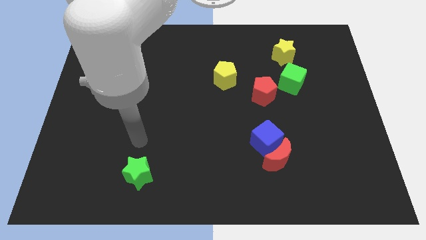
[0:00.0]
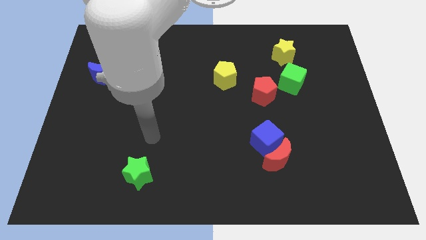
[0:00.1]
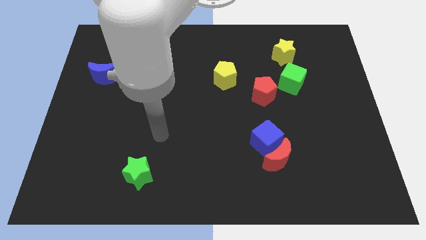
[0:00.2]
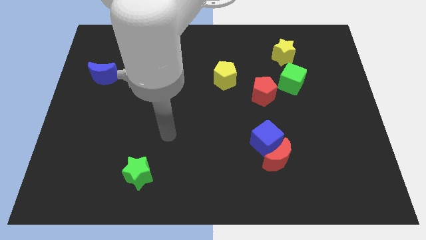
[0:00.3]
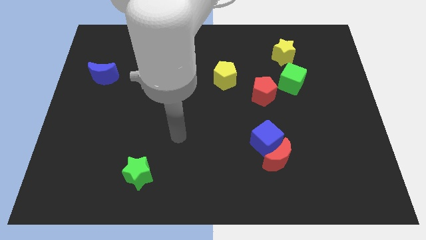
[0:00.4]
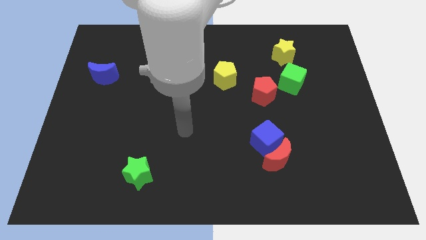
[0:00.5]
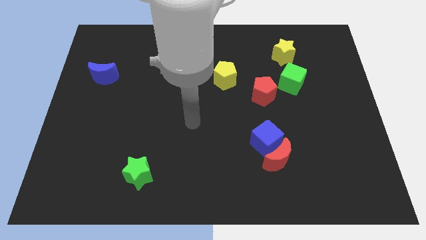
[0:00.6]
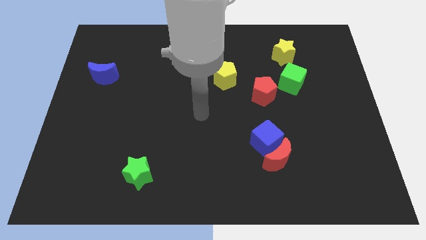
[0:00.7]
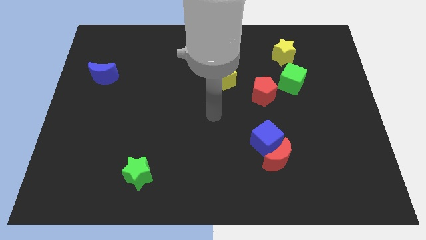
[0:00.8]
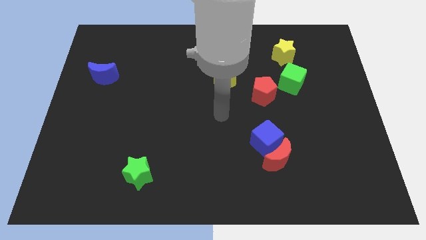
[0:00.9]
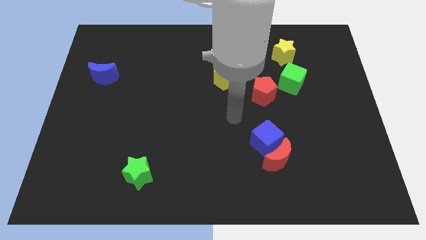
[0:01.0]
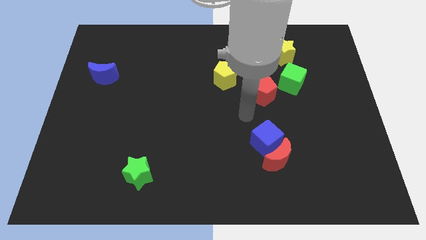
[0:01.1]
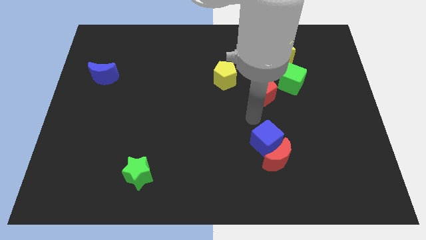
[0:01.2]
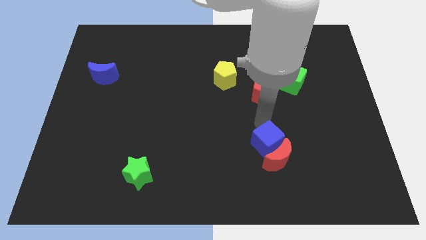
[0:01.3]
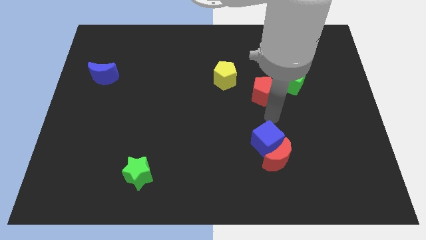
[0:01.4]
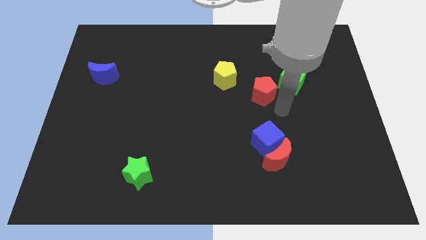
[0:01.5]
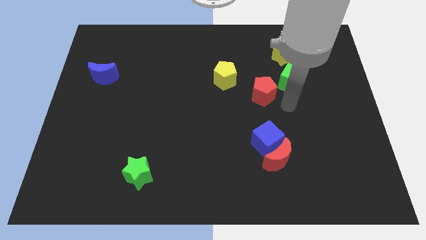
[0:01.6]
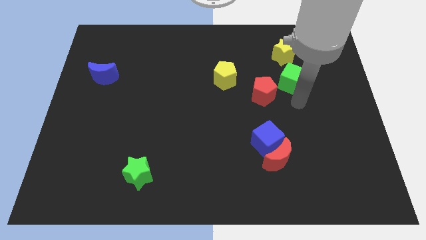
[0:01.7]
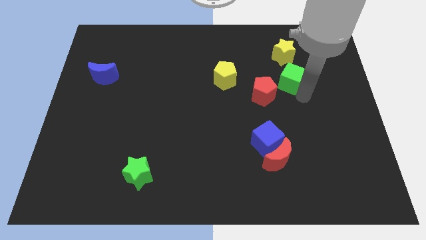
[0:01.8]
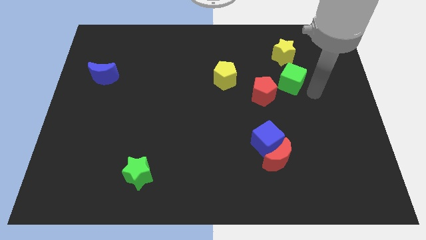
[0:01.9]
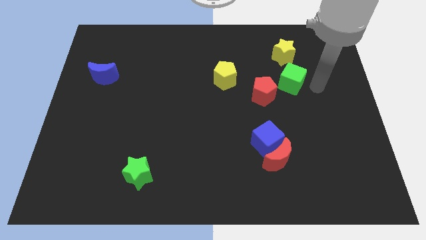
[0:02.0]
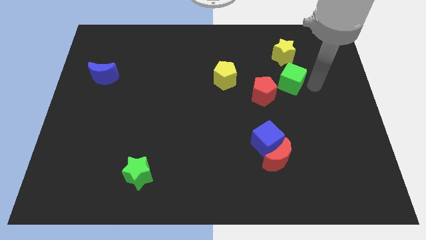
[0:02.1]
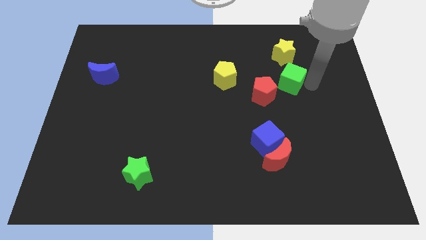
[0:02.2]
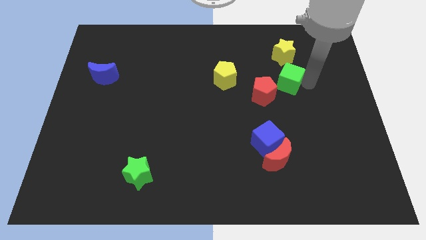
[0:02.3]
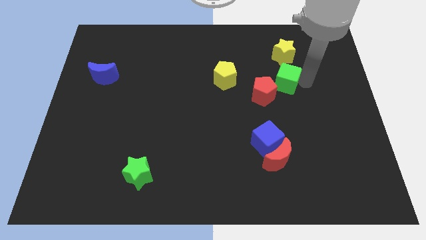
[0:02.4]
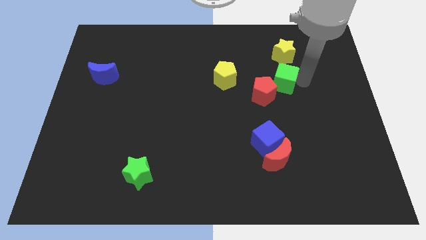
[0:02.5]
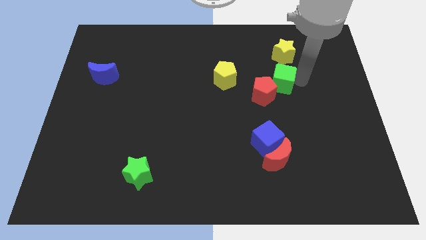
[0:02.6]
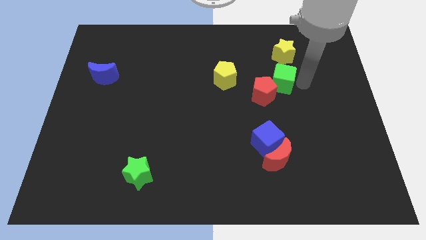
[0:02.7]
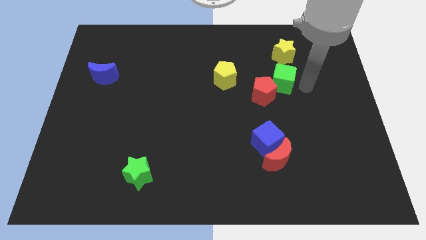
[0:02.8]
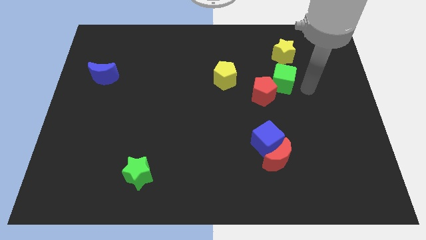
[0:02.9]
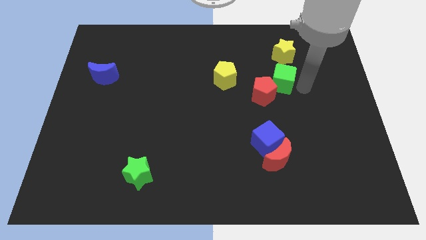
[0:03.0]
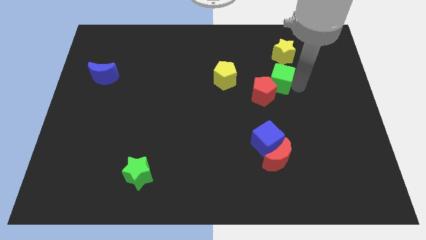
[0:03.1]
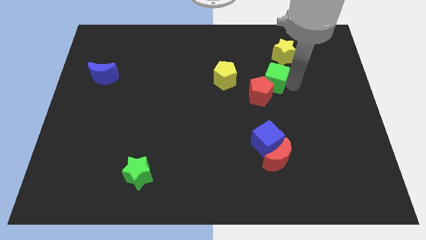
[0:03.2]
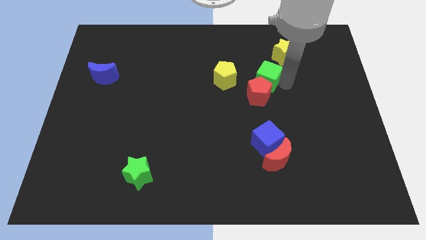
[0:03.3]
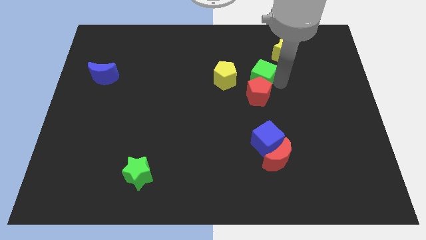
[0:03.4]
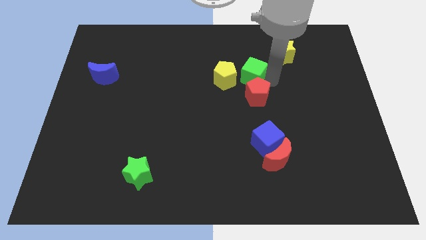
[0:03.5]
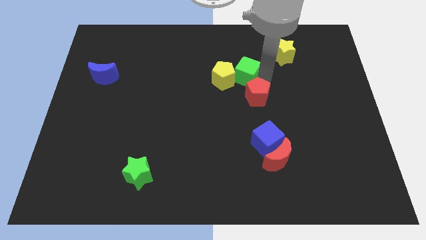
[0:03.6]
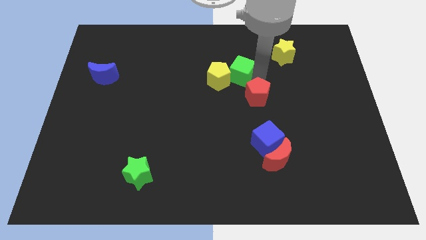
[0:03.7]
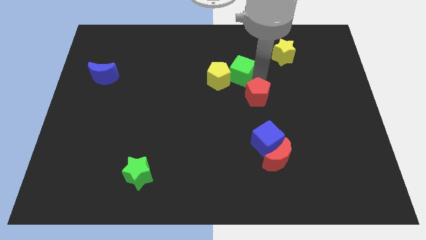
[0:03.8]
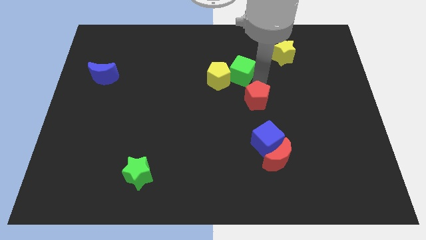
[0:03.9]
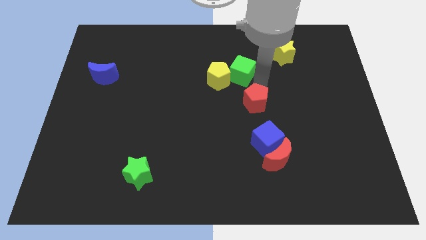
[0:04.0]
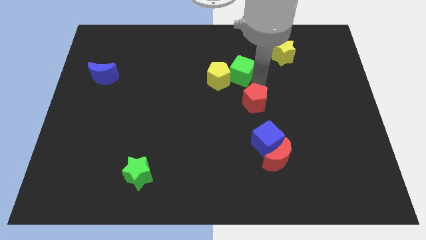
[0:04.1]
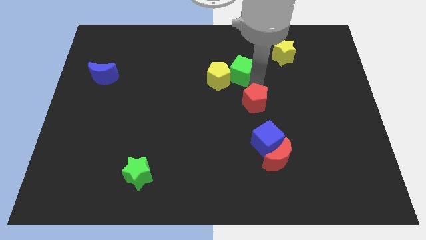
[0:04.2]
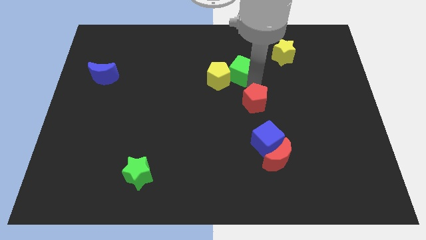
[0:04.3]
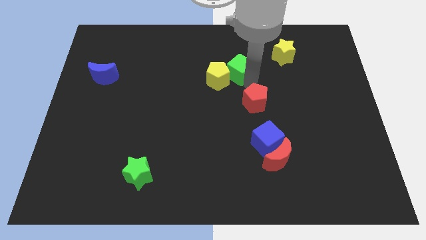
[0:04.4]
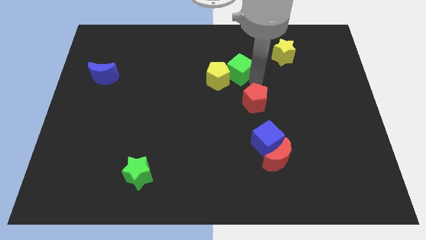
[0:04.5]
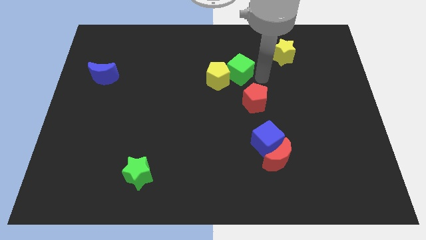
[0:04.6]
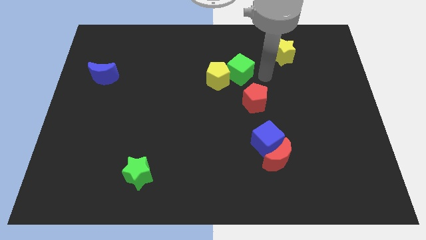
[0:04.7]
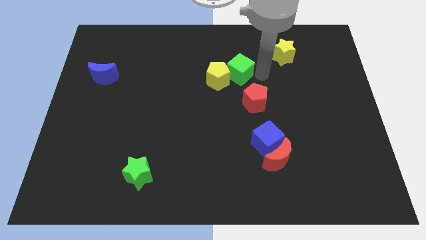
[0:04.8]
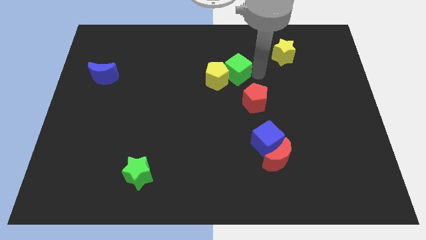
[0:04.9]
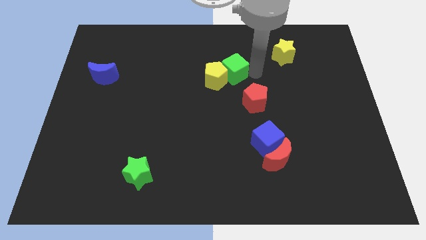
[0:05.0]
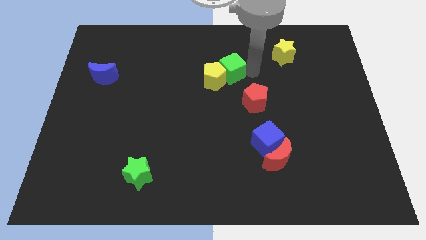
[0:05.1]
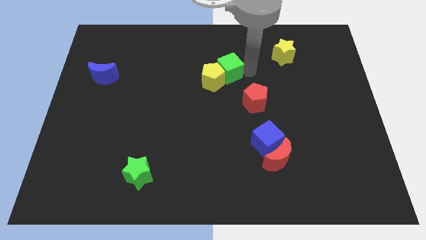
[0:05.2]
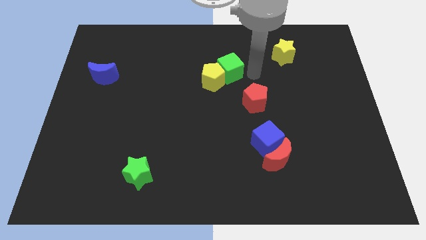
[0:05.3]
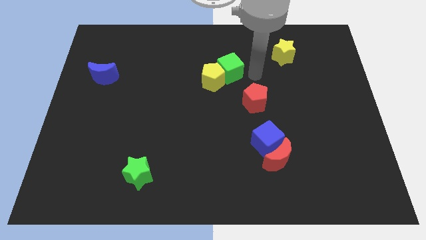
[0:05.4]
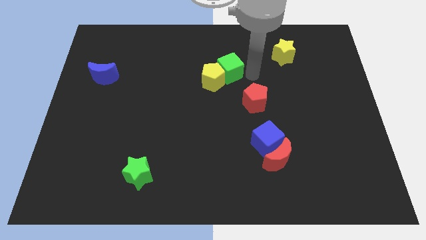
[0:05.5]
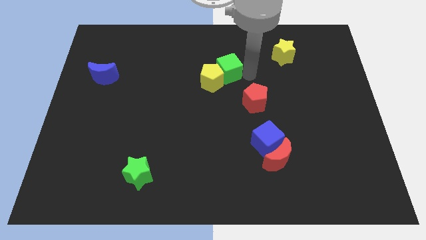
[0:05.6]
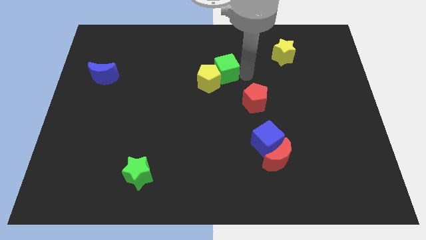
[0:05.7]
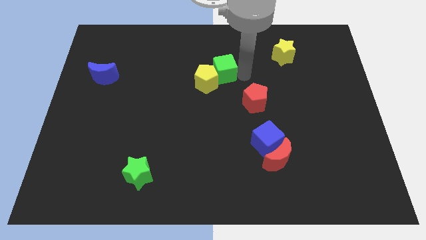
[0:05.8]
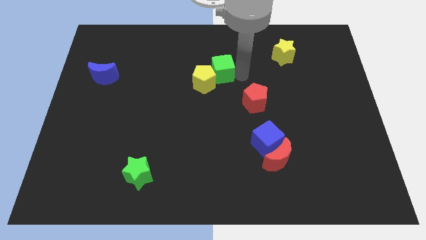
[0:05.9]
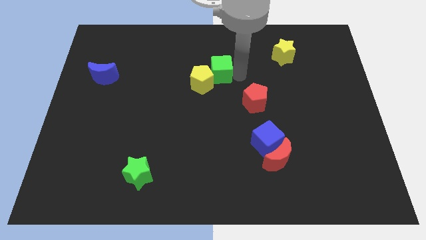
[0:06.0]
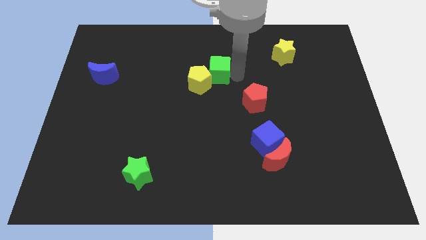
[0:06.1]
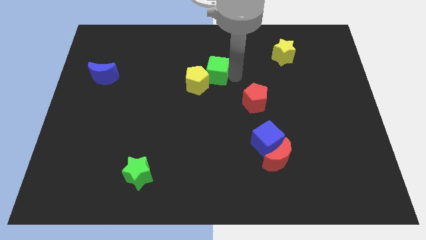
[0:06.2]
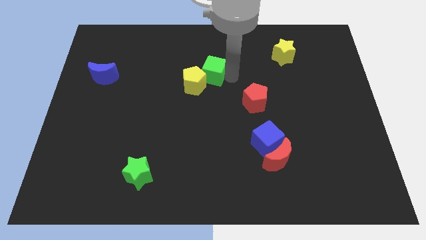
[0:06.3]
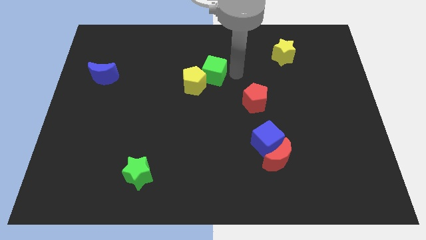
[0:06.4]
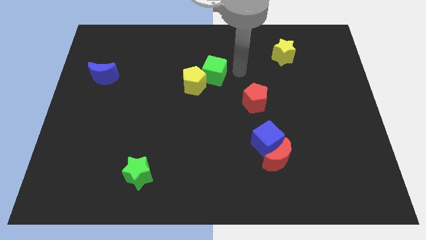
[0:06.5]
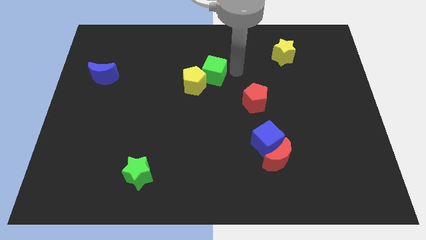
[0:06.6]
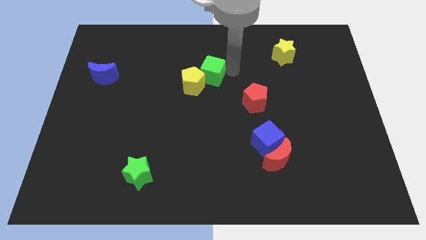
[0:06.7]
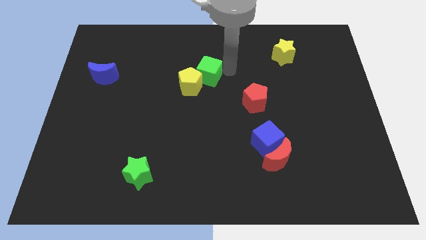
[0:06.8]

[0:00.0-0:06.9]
move the green cube to the left

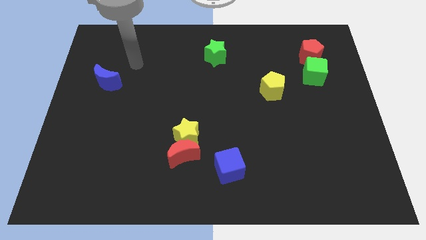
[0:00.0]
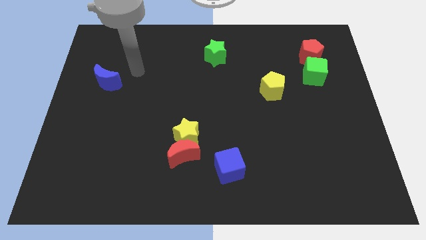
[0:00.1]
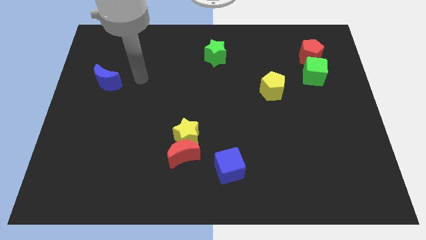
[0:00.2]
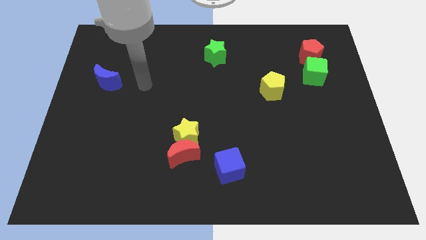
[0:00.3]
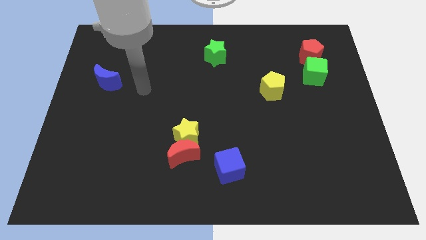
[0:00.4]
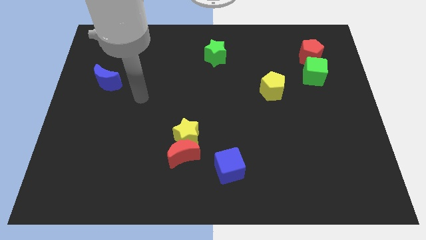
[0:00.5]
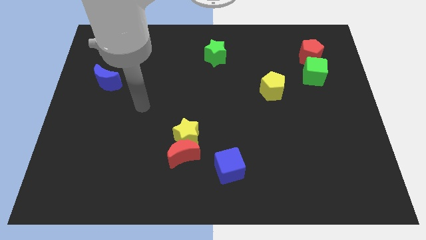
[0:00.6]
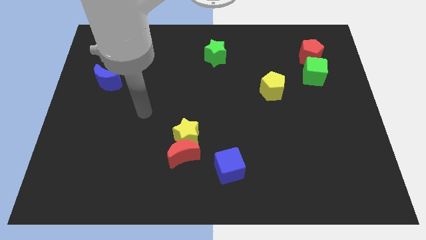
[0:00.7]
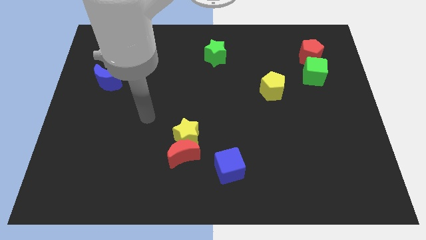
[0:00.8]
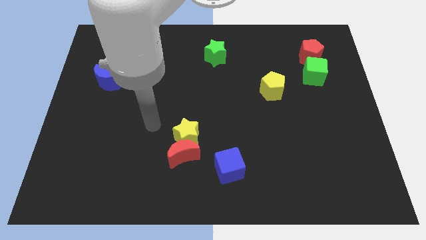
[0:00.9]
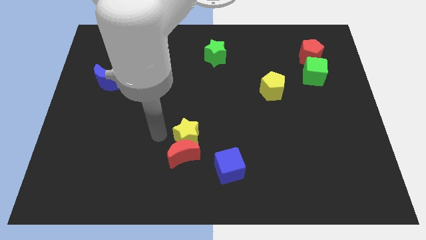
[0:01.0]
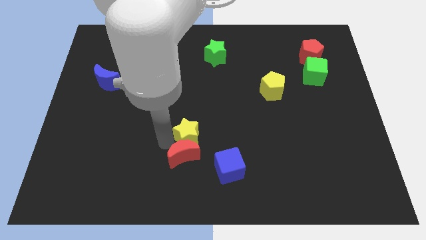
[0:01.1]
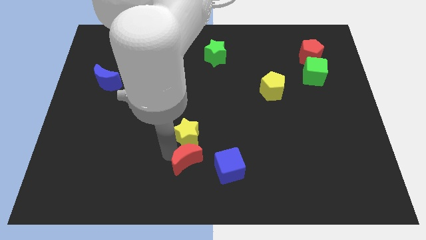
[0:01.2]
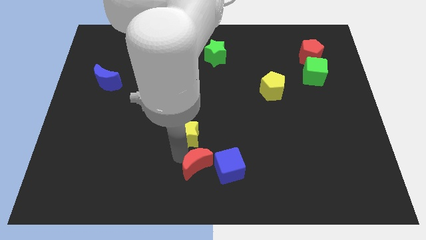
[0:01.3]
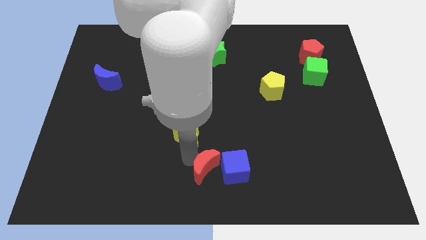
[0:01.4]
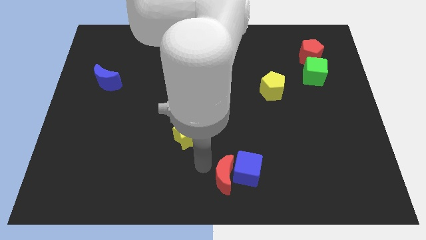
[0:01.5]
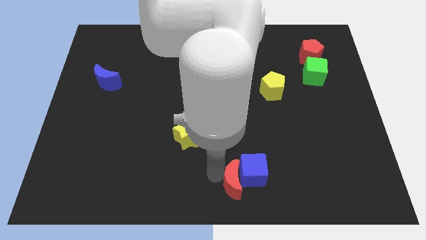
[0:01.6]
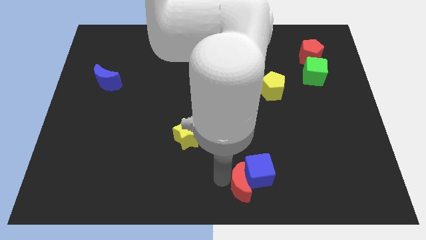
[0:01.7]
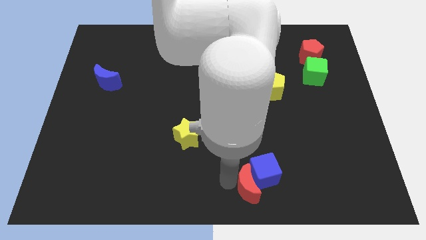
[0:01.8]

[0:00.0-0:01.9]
slightly slide the blue cube to the right
